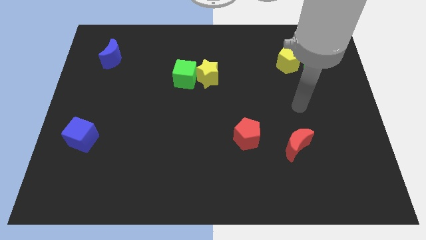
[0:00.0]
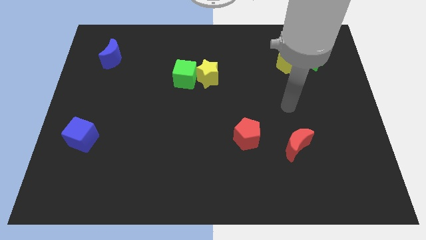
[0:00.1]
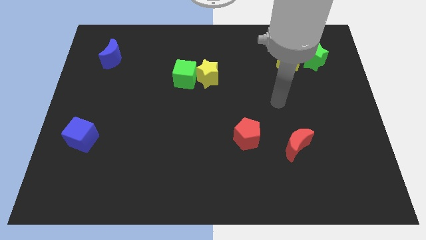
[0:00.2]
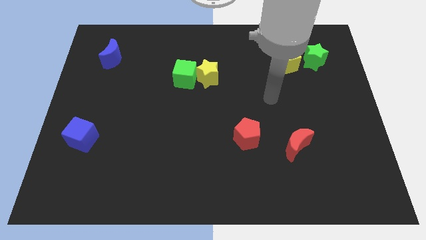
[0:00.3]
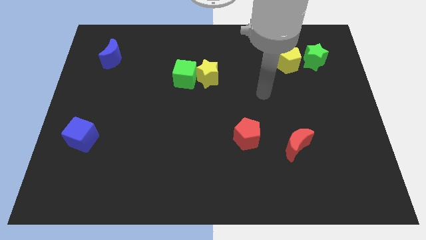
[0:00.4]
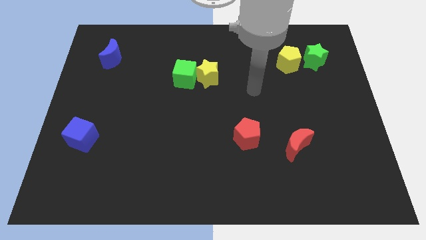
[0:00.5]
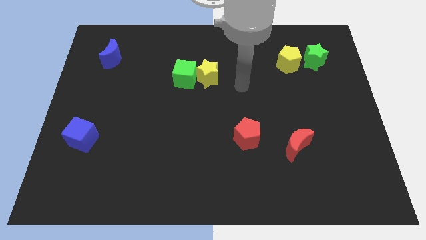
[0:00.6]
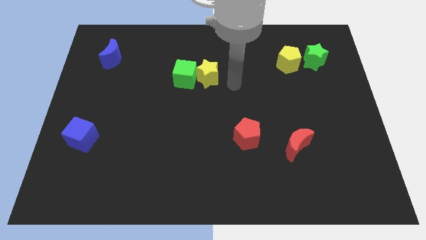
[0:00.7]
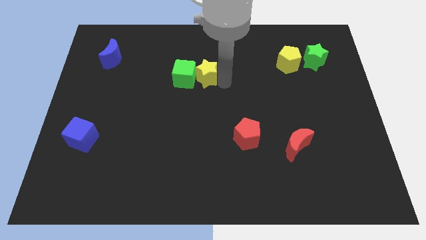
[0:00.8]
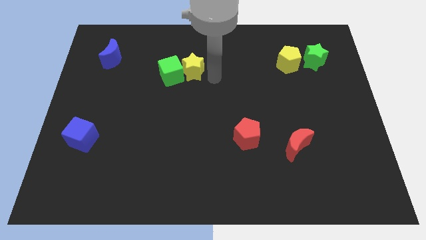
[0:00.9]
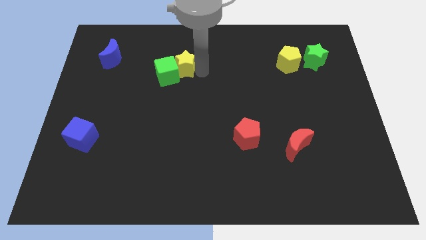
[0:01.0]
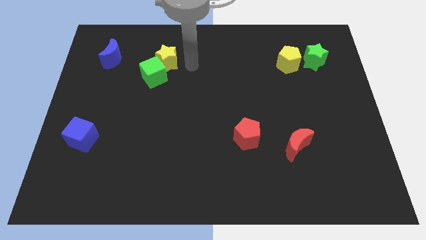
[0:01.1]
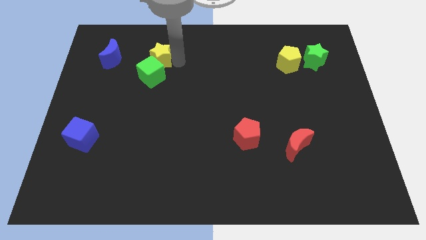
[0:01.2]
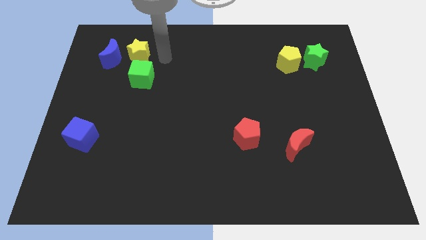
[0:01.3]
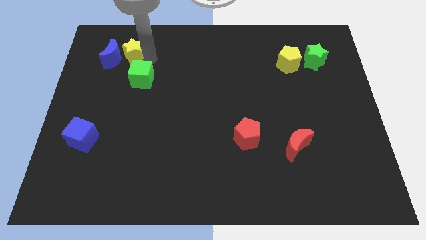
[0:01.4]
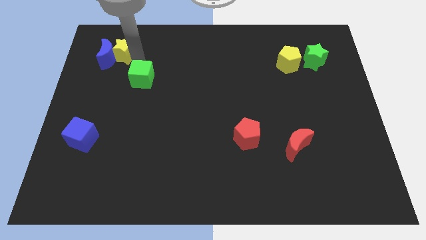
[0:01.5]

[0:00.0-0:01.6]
pull the green cube apart from the yellow star

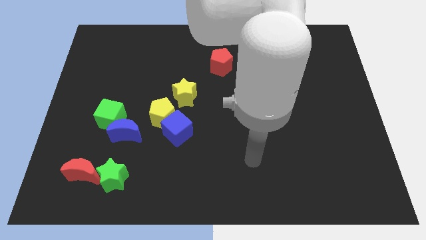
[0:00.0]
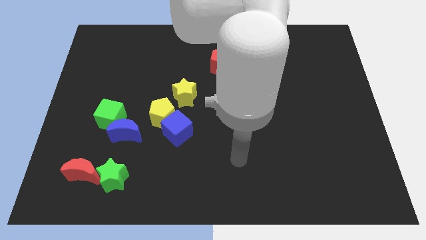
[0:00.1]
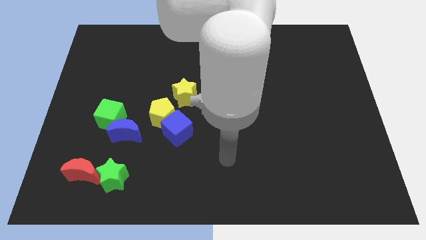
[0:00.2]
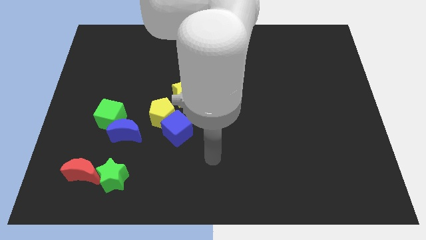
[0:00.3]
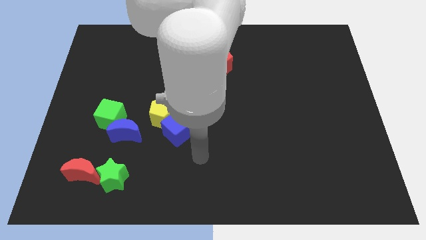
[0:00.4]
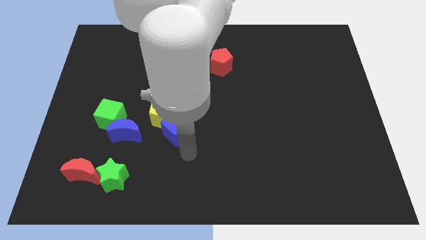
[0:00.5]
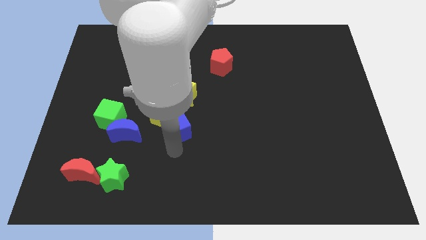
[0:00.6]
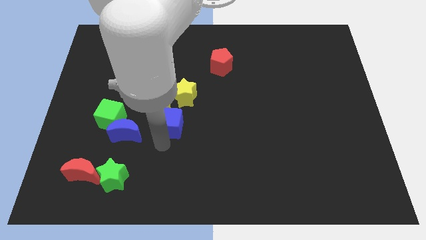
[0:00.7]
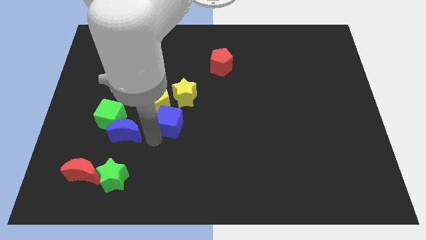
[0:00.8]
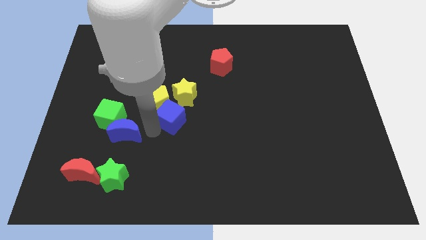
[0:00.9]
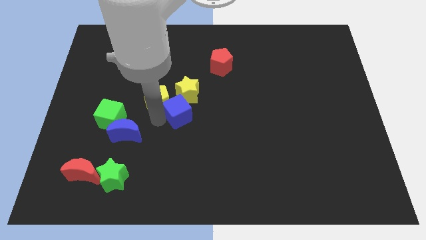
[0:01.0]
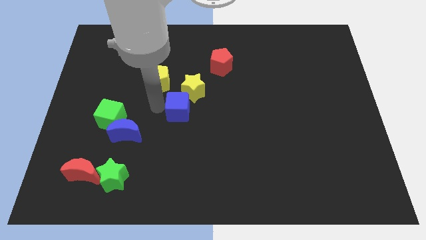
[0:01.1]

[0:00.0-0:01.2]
pull the blue cube apart from the yellow pentagon

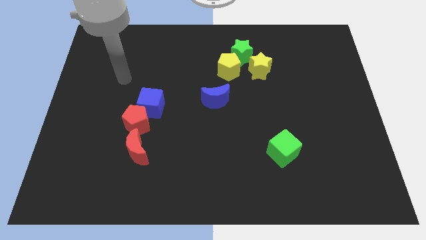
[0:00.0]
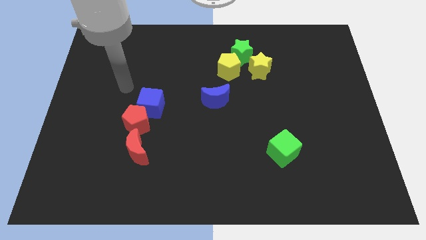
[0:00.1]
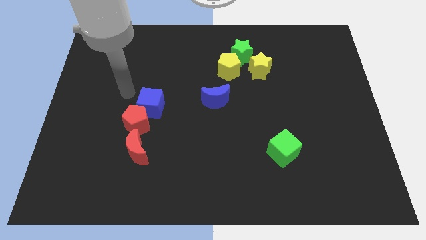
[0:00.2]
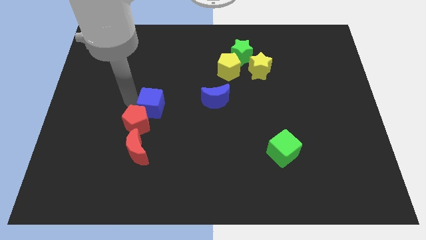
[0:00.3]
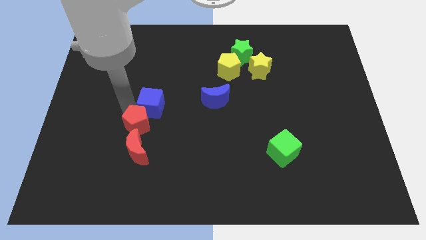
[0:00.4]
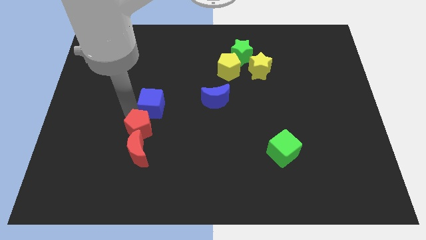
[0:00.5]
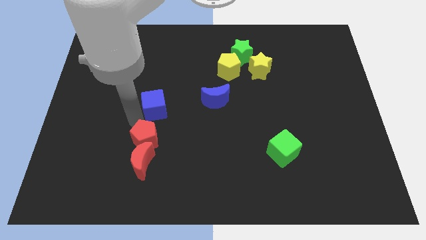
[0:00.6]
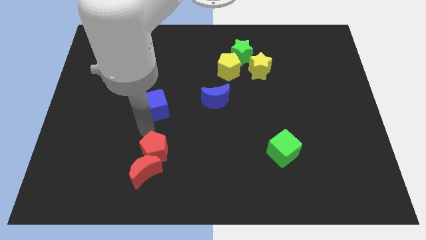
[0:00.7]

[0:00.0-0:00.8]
separate the blue cube from the red pentagon

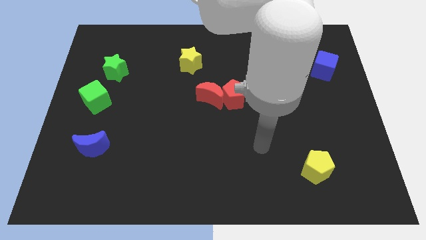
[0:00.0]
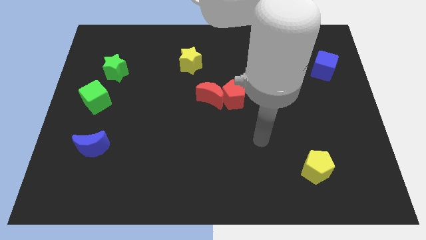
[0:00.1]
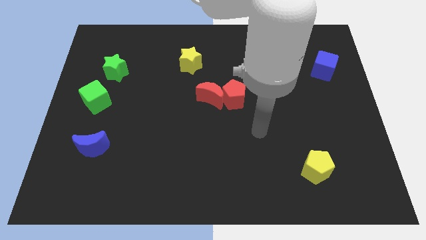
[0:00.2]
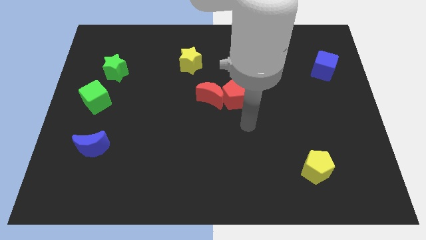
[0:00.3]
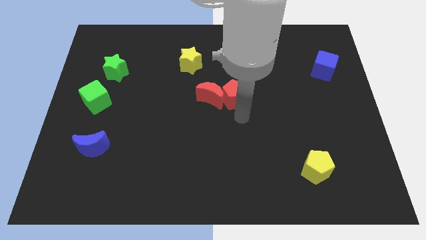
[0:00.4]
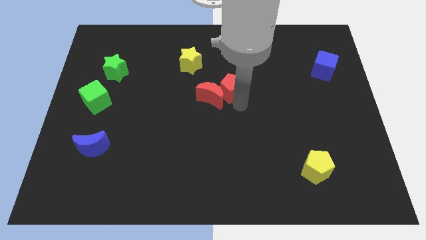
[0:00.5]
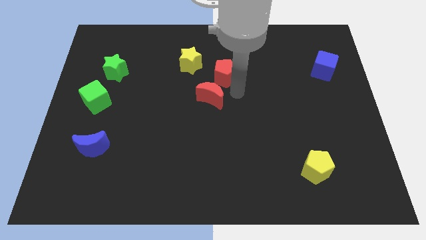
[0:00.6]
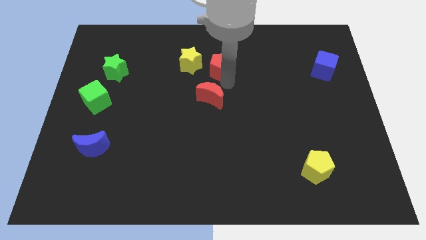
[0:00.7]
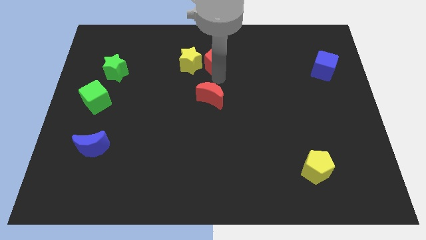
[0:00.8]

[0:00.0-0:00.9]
move the red moon away from the red pentagon

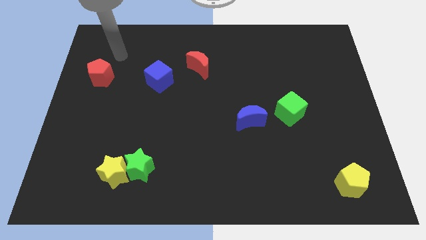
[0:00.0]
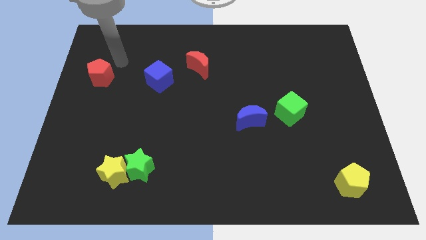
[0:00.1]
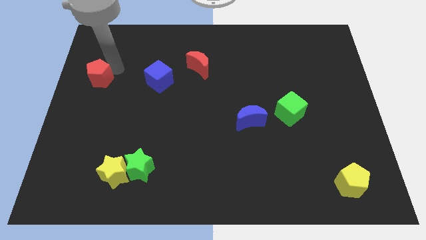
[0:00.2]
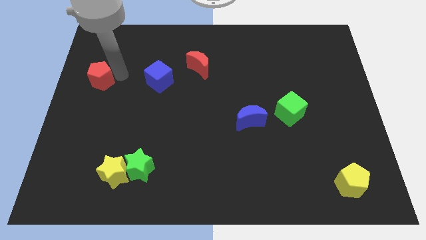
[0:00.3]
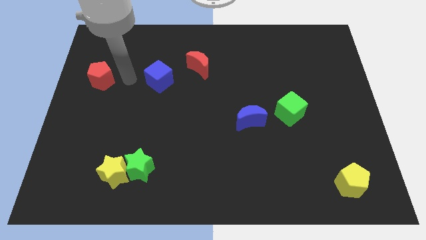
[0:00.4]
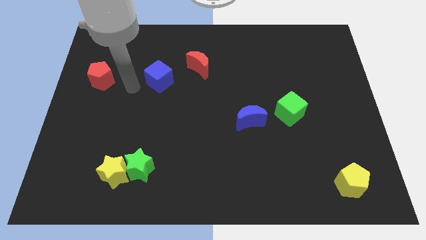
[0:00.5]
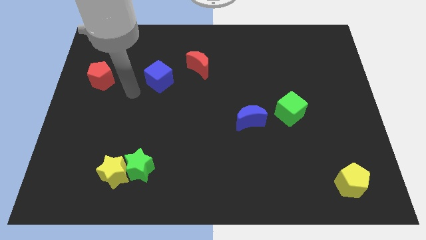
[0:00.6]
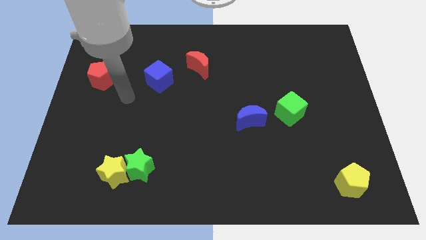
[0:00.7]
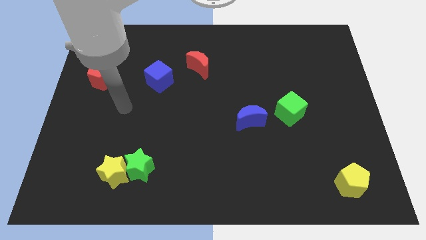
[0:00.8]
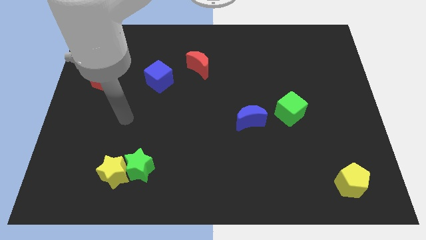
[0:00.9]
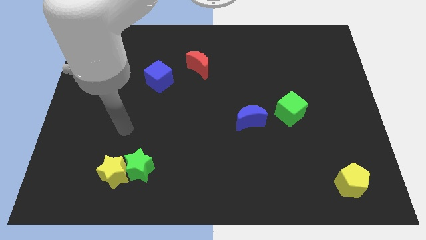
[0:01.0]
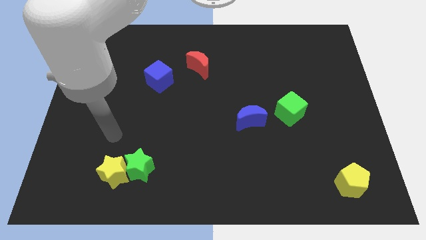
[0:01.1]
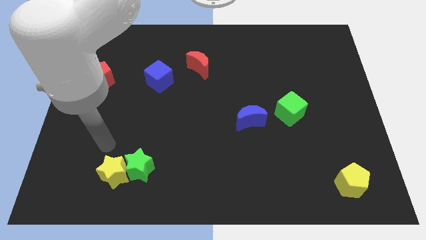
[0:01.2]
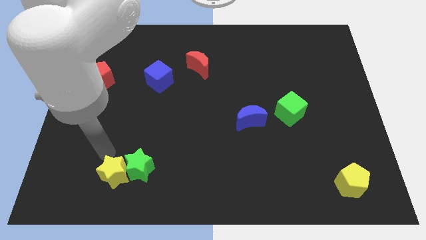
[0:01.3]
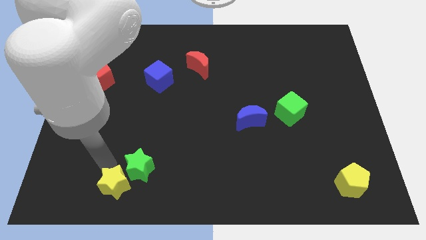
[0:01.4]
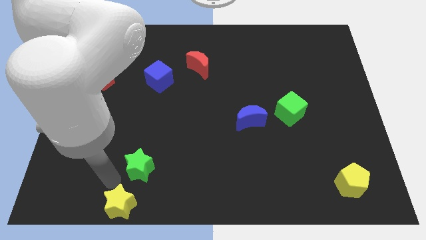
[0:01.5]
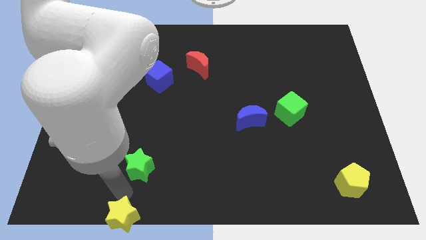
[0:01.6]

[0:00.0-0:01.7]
move the green star away from the yellow star

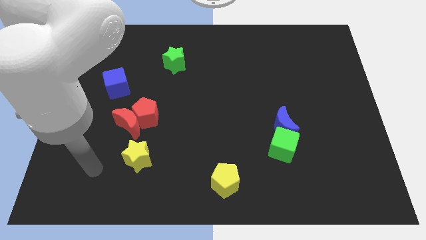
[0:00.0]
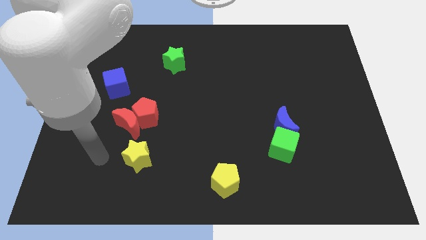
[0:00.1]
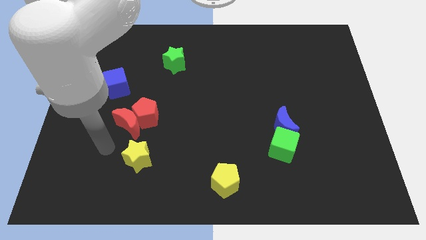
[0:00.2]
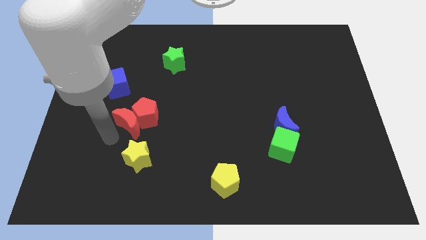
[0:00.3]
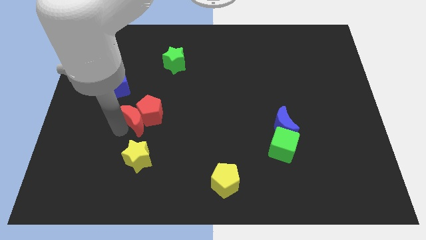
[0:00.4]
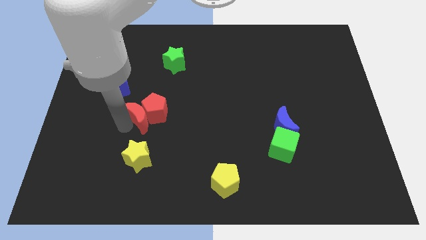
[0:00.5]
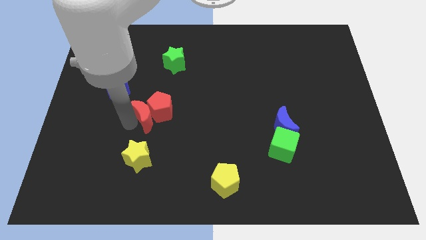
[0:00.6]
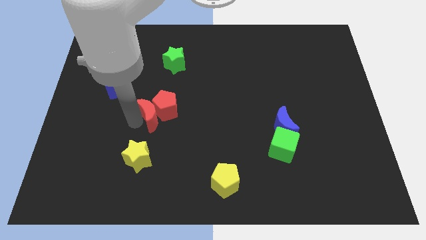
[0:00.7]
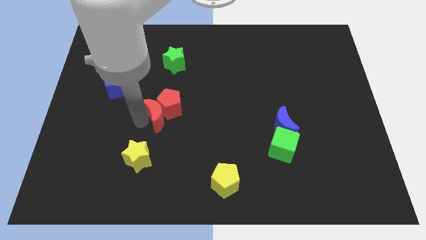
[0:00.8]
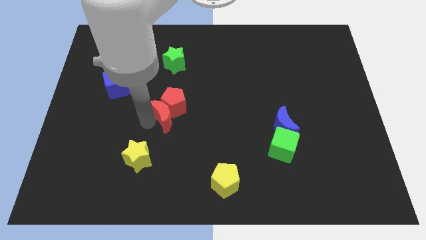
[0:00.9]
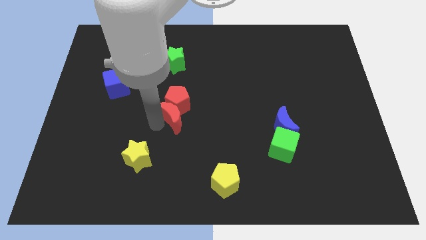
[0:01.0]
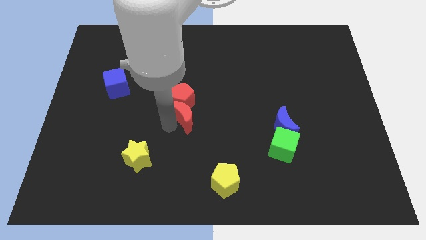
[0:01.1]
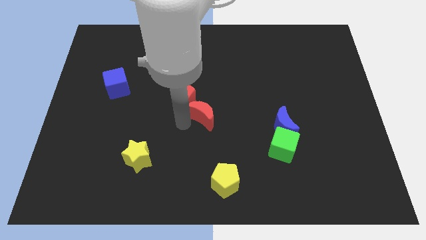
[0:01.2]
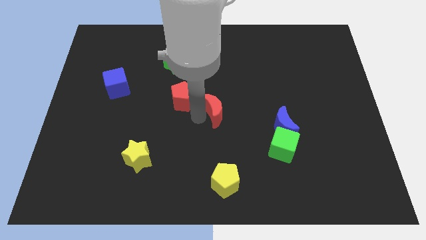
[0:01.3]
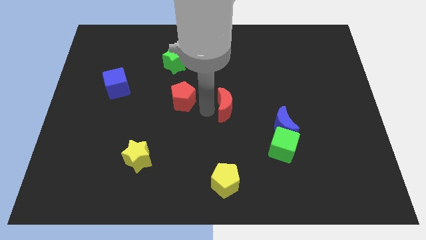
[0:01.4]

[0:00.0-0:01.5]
separate the red pentagon from the red moon

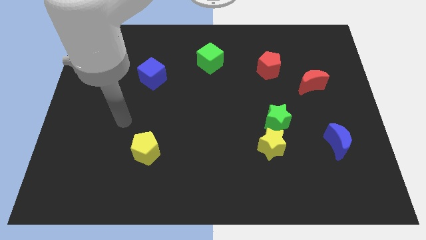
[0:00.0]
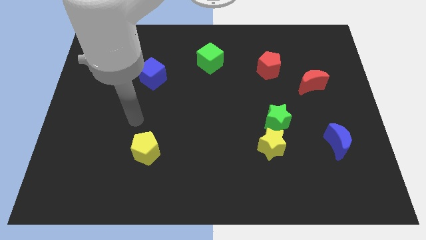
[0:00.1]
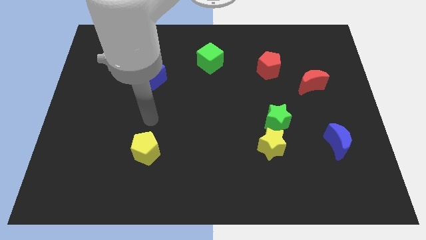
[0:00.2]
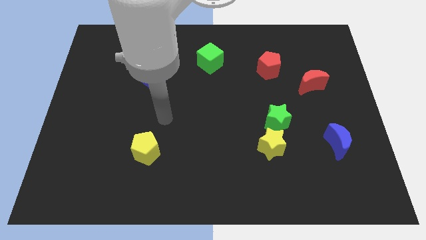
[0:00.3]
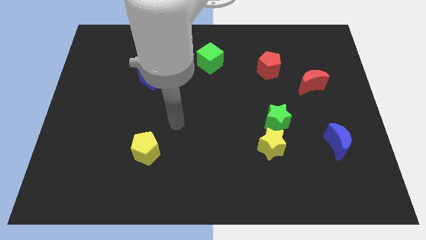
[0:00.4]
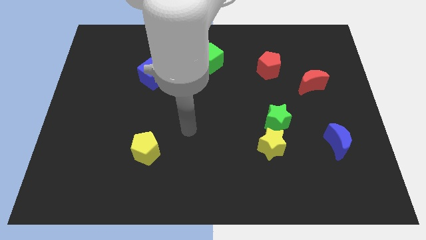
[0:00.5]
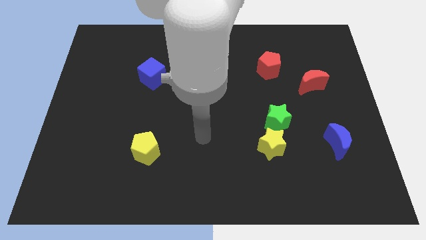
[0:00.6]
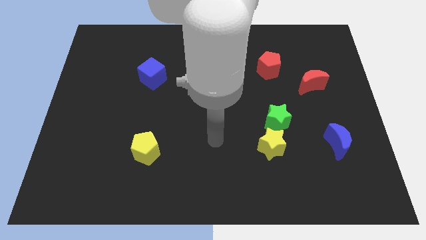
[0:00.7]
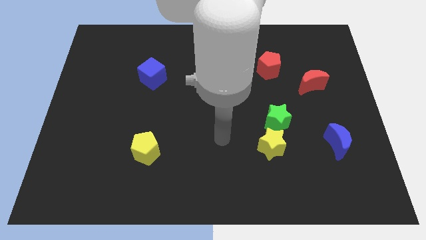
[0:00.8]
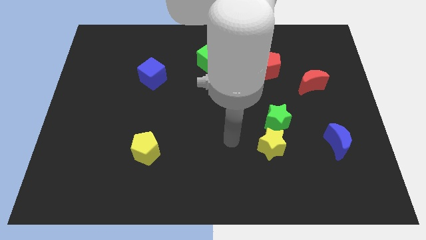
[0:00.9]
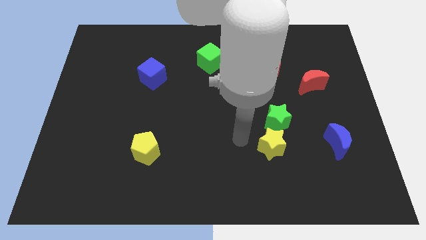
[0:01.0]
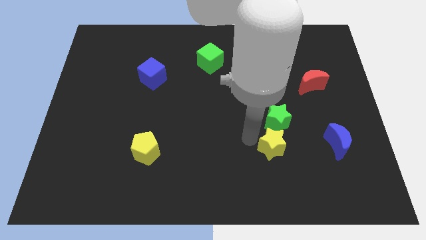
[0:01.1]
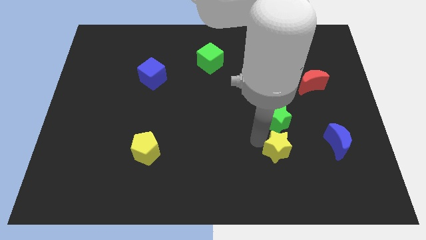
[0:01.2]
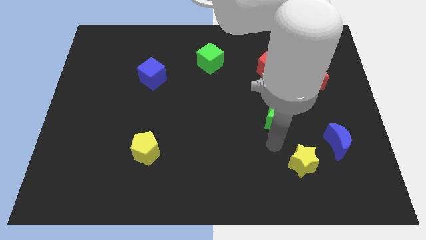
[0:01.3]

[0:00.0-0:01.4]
pull the green star apart from the yellow star

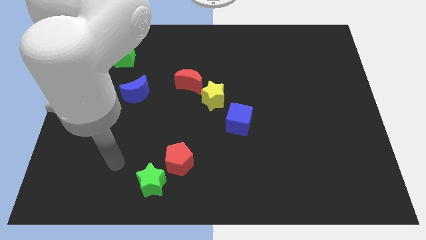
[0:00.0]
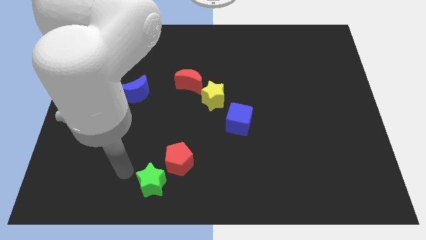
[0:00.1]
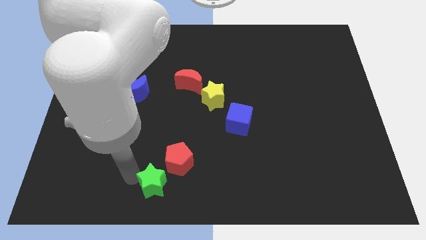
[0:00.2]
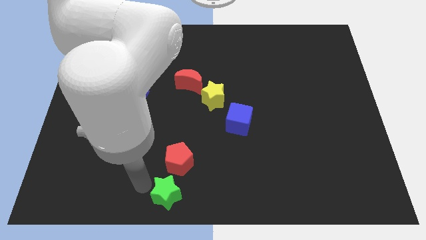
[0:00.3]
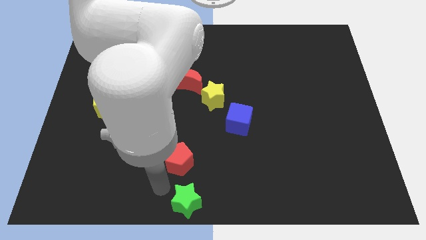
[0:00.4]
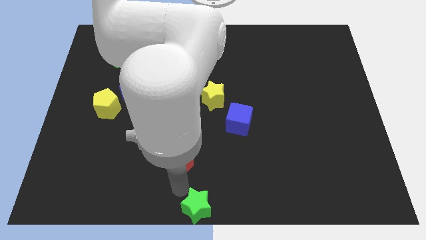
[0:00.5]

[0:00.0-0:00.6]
separate the red pentagon from the green star
